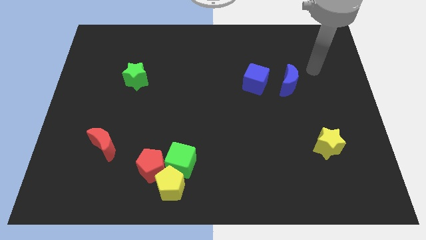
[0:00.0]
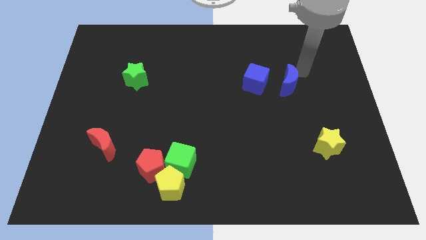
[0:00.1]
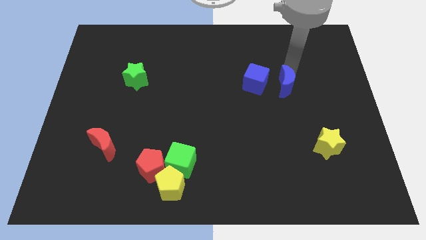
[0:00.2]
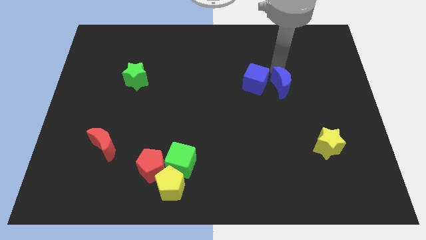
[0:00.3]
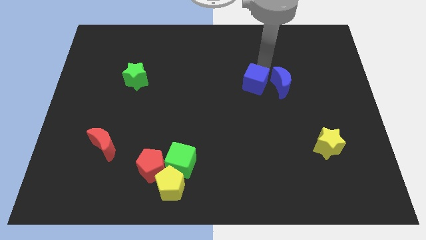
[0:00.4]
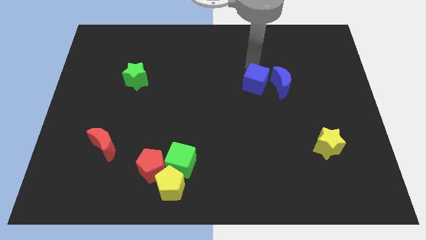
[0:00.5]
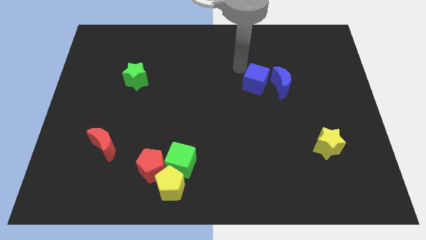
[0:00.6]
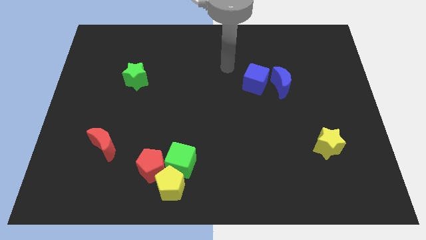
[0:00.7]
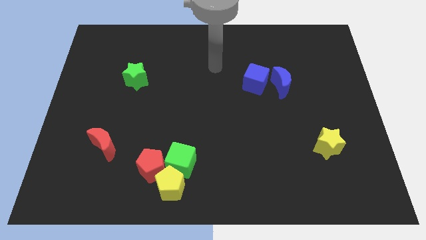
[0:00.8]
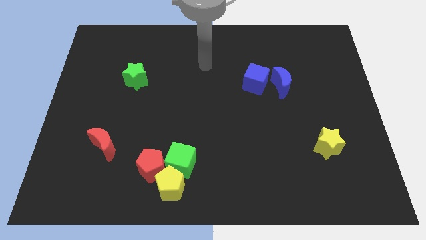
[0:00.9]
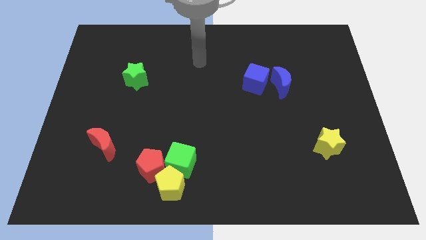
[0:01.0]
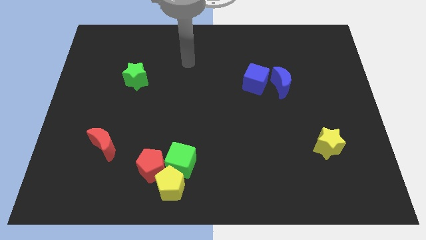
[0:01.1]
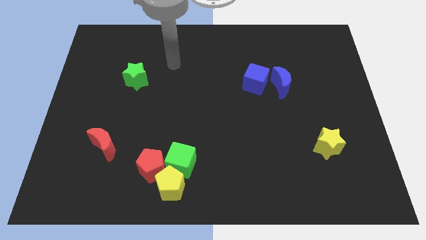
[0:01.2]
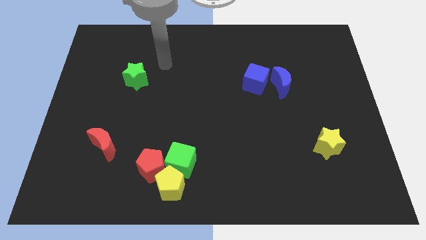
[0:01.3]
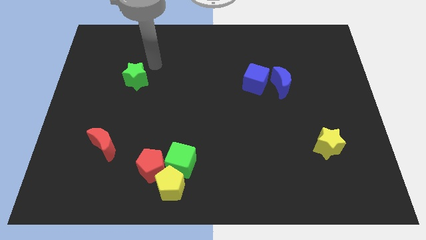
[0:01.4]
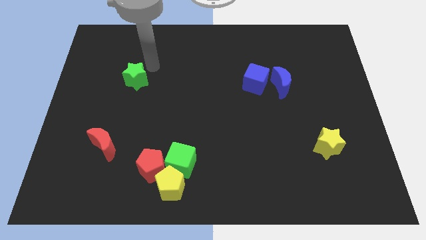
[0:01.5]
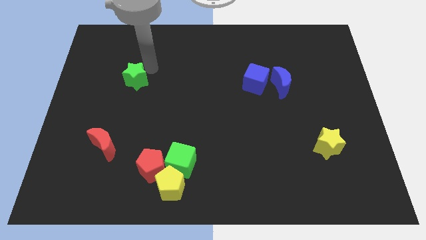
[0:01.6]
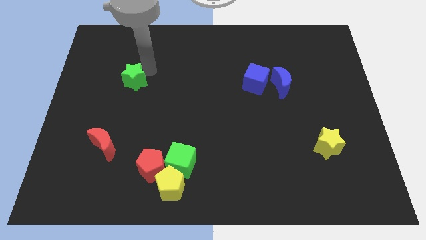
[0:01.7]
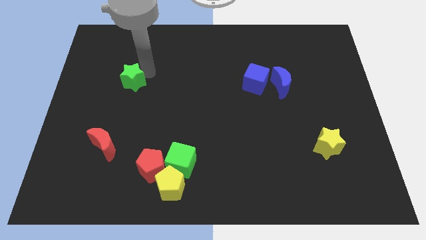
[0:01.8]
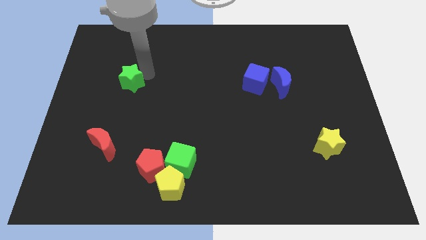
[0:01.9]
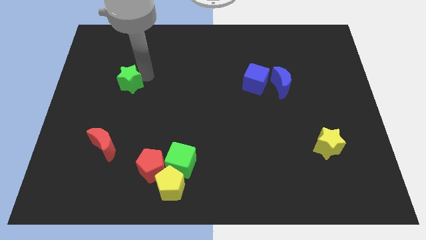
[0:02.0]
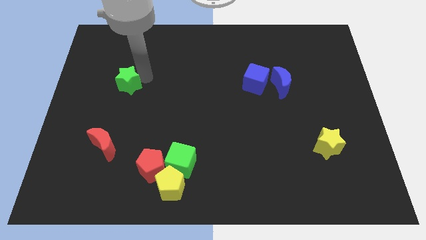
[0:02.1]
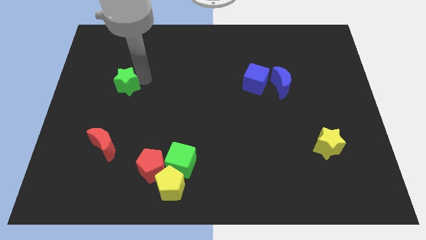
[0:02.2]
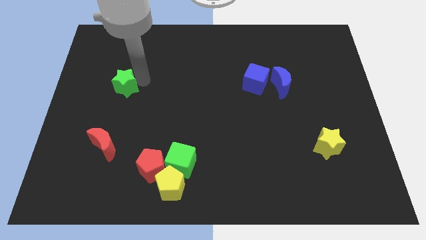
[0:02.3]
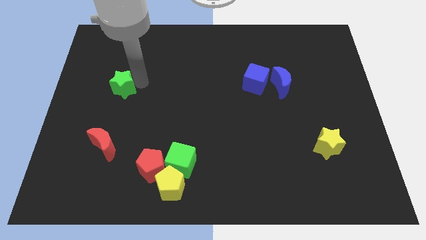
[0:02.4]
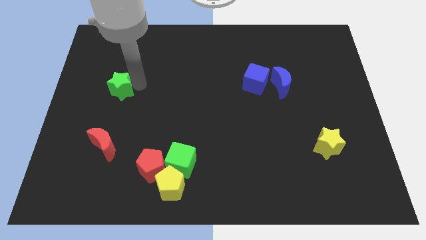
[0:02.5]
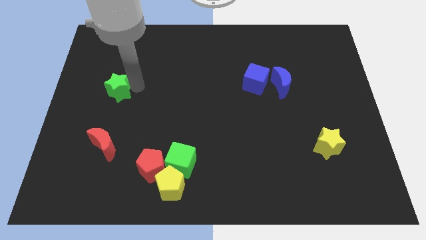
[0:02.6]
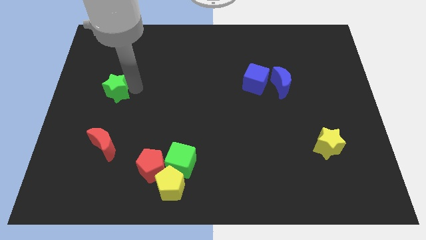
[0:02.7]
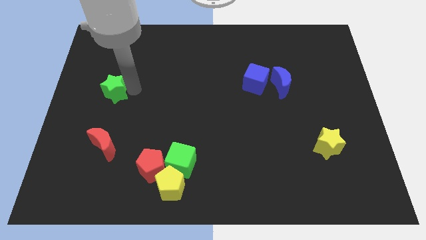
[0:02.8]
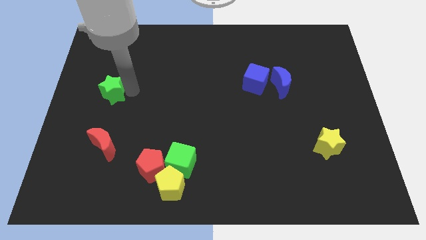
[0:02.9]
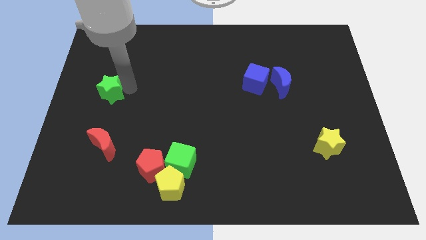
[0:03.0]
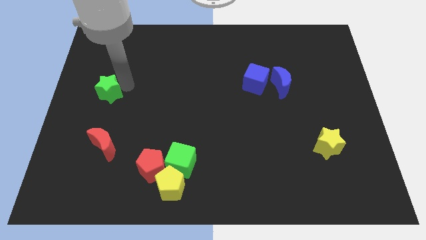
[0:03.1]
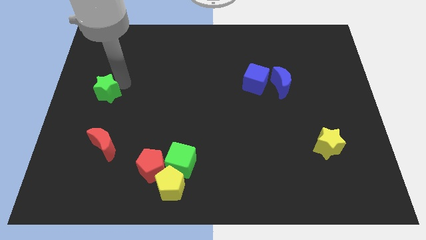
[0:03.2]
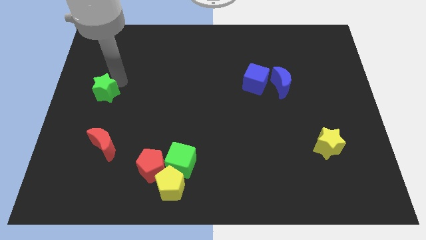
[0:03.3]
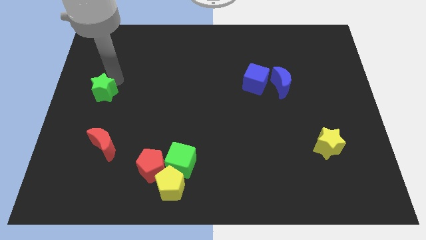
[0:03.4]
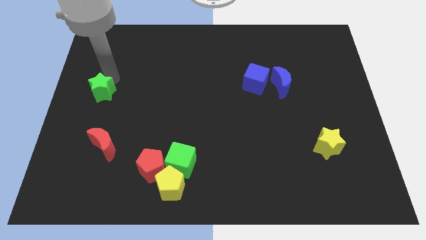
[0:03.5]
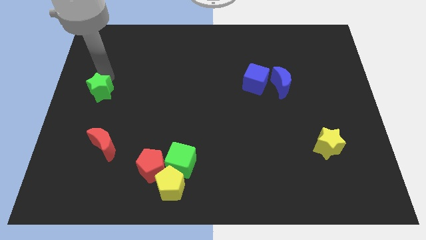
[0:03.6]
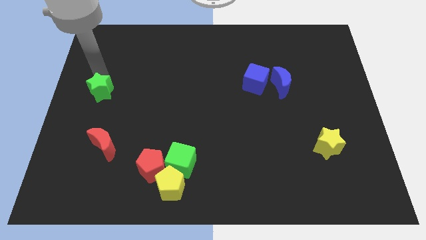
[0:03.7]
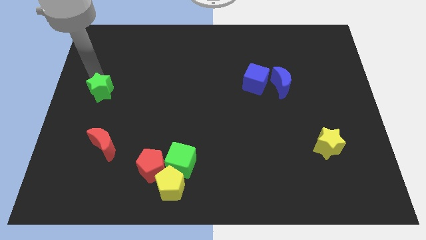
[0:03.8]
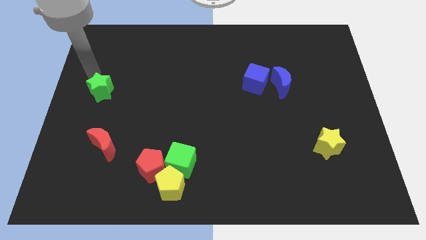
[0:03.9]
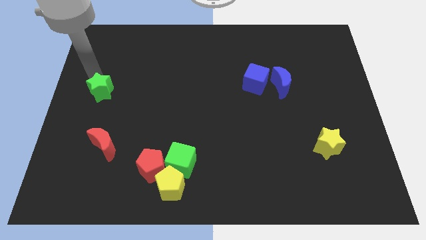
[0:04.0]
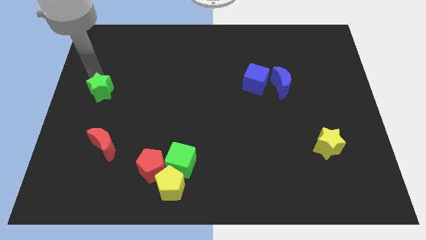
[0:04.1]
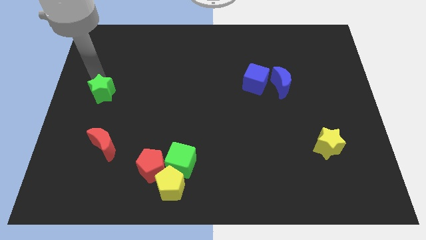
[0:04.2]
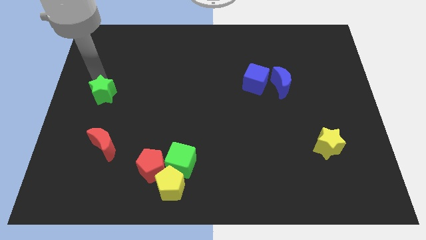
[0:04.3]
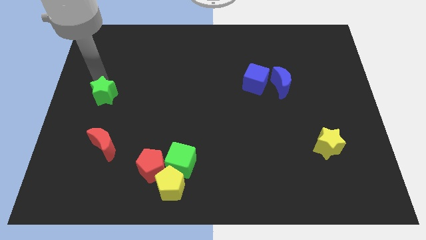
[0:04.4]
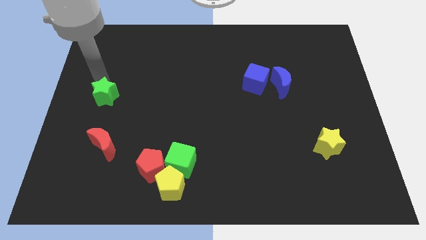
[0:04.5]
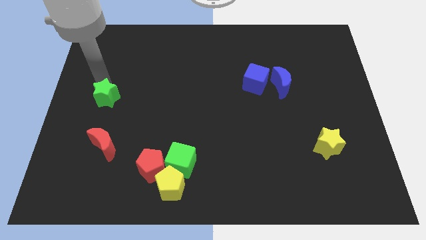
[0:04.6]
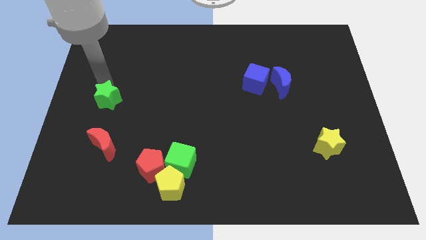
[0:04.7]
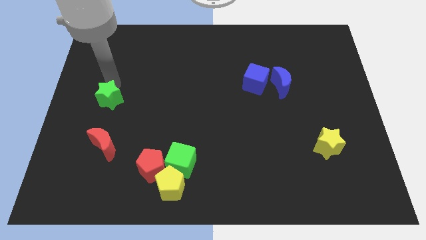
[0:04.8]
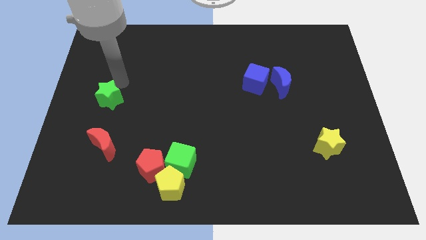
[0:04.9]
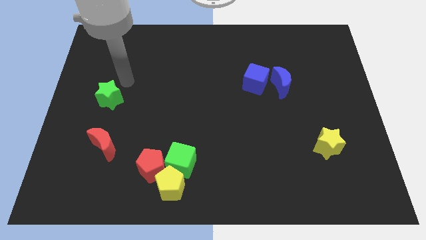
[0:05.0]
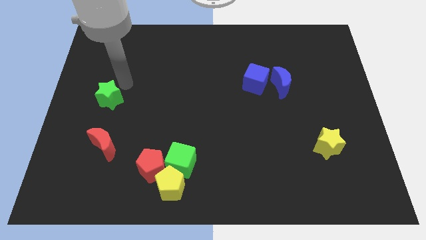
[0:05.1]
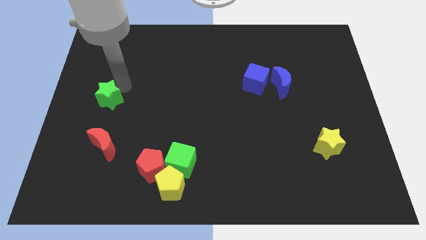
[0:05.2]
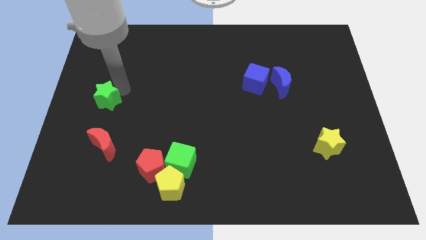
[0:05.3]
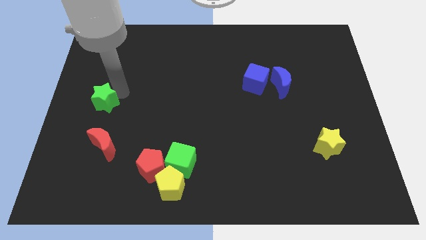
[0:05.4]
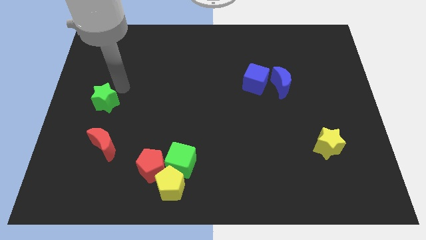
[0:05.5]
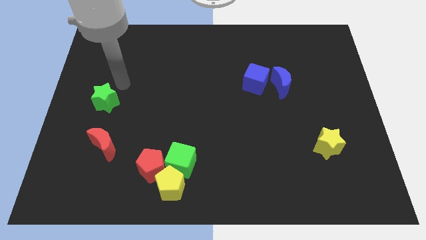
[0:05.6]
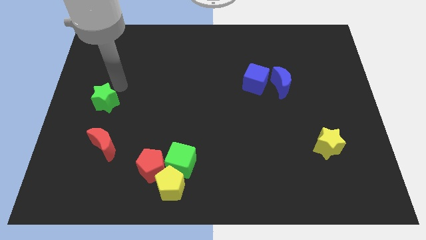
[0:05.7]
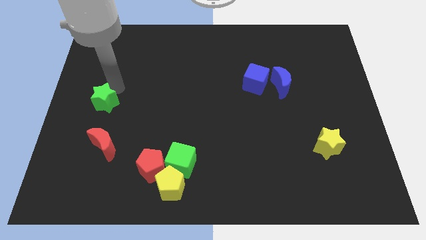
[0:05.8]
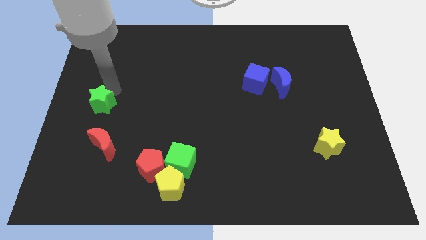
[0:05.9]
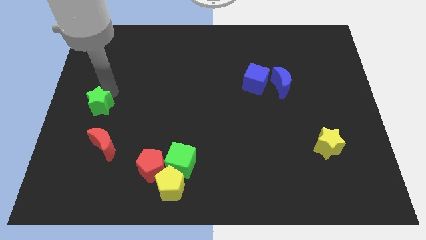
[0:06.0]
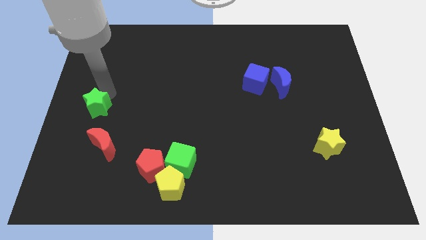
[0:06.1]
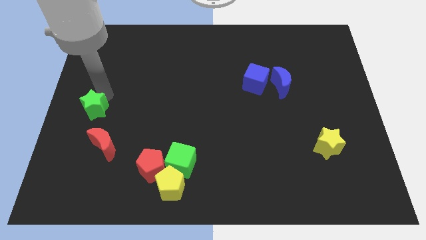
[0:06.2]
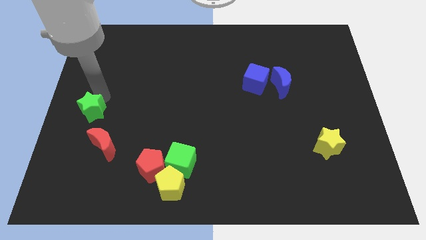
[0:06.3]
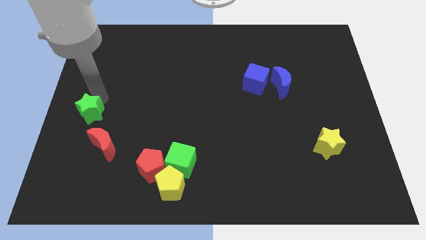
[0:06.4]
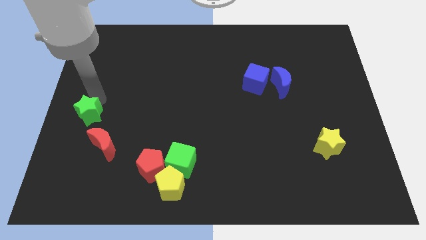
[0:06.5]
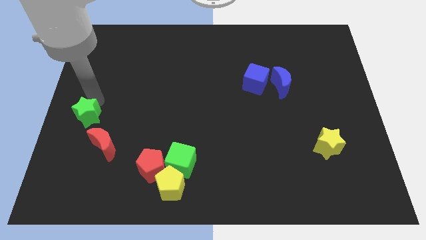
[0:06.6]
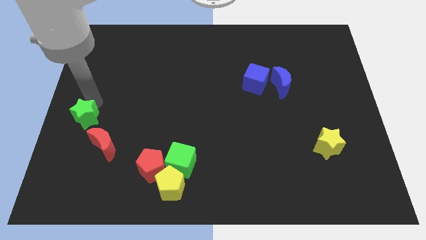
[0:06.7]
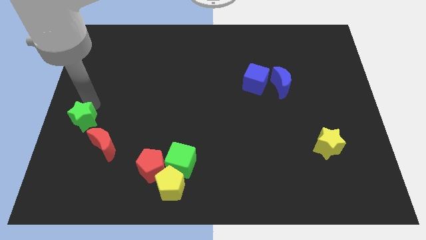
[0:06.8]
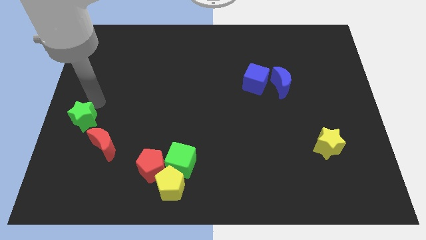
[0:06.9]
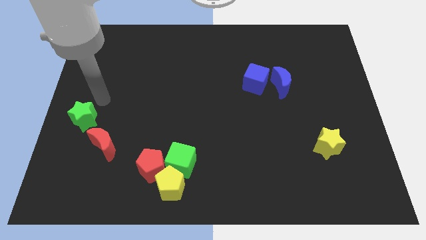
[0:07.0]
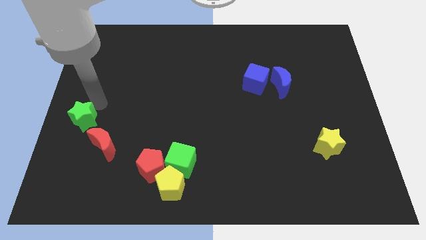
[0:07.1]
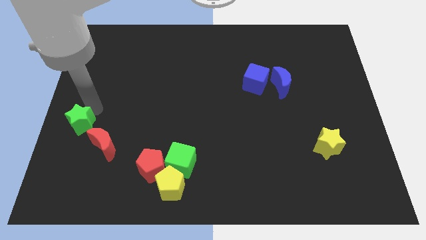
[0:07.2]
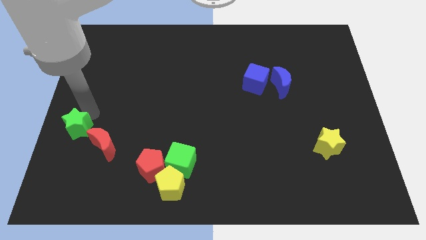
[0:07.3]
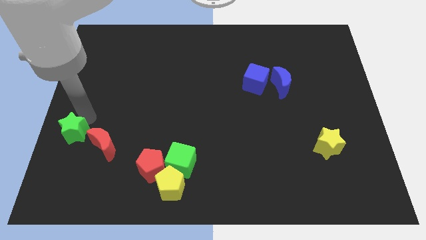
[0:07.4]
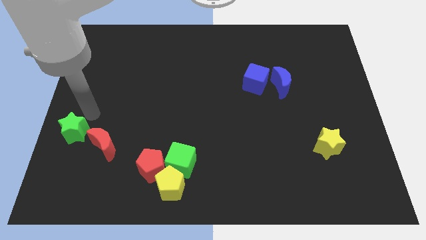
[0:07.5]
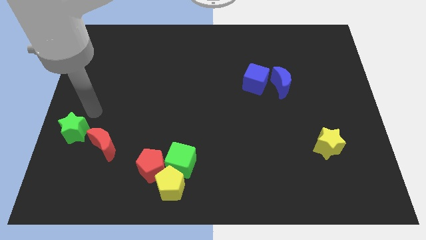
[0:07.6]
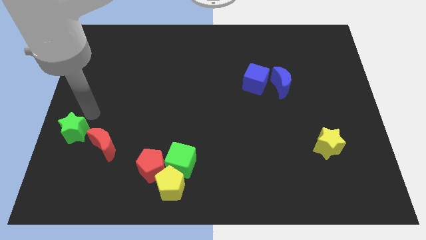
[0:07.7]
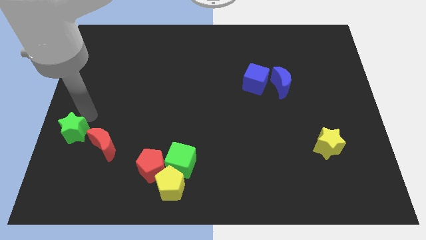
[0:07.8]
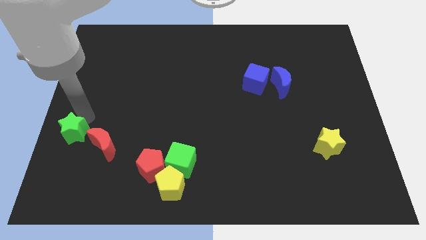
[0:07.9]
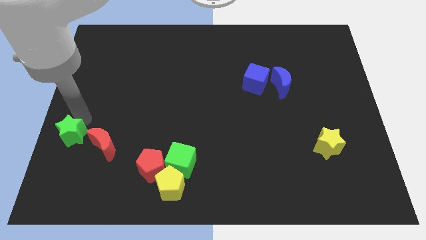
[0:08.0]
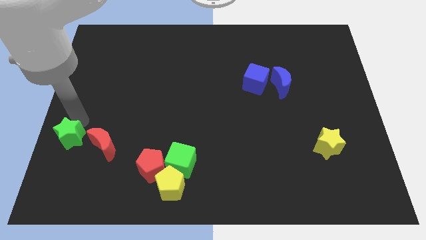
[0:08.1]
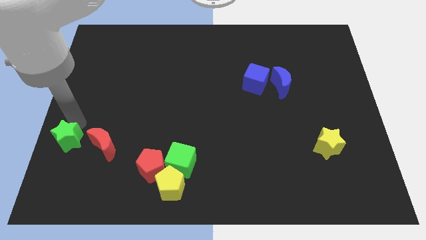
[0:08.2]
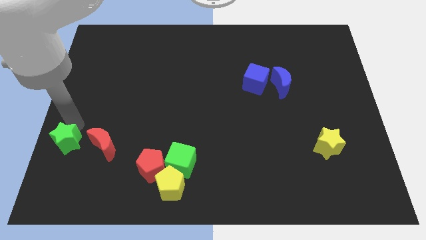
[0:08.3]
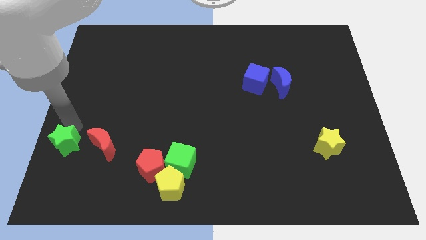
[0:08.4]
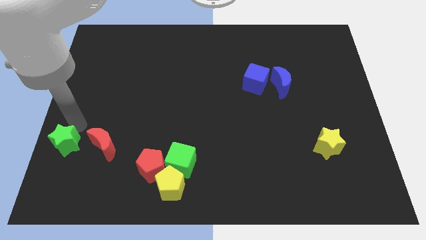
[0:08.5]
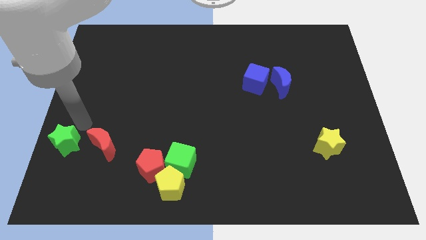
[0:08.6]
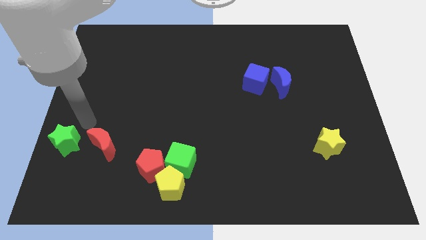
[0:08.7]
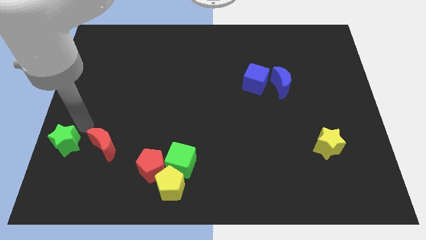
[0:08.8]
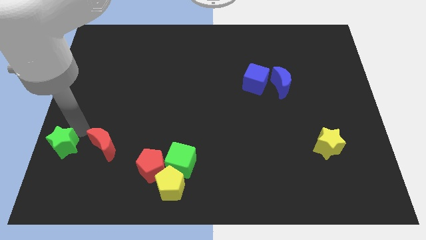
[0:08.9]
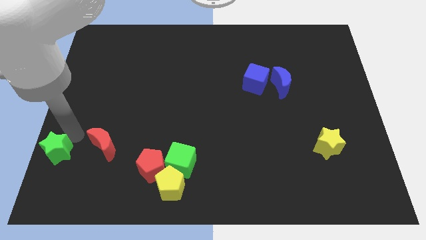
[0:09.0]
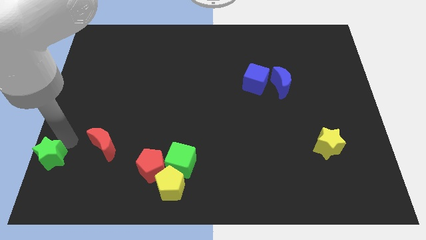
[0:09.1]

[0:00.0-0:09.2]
move the green star to the lower left corner
